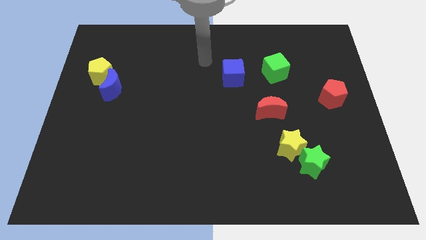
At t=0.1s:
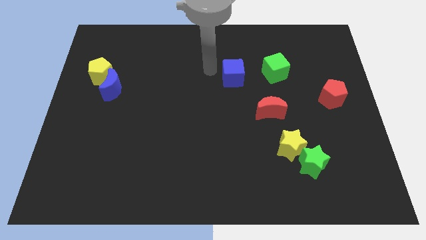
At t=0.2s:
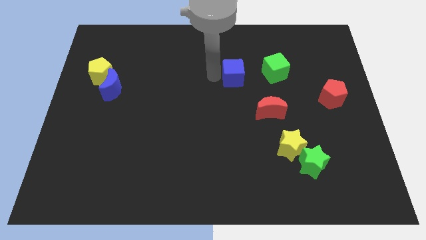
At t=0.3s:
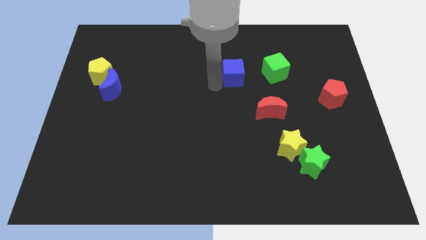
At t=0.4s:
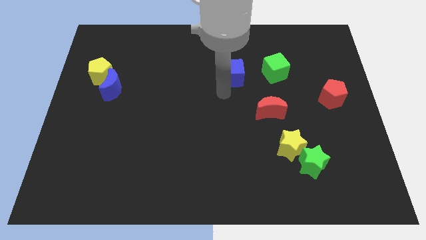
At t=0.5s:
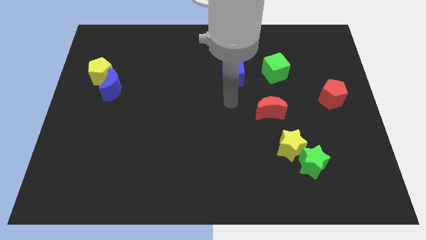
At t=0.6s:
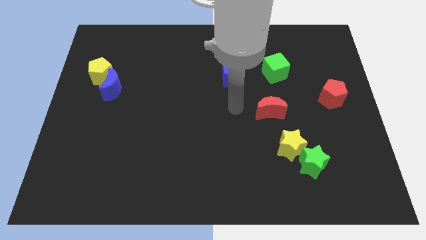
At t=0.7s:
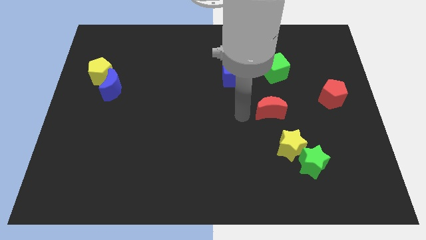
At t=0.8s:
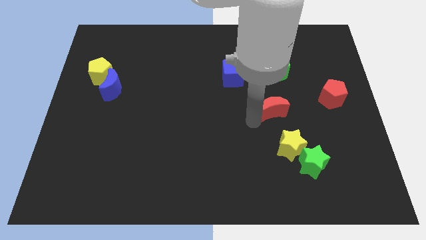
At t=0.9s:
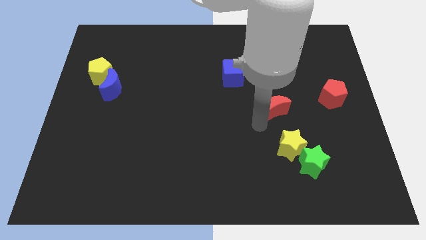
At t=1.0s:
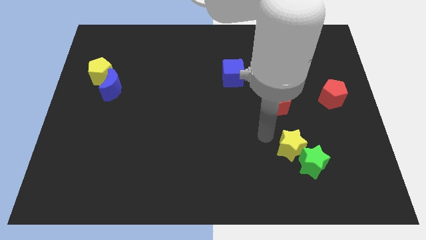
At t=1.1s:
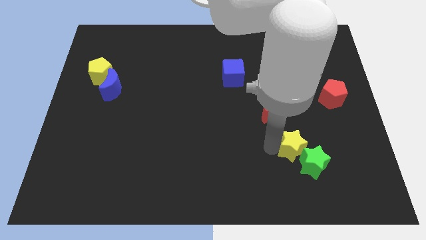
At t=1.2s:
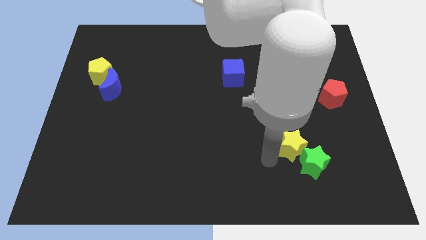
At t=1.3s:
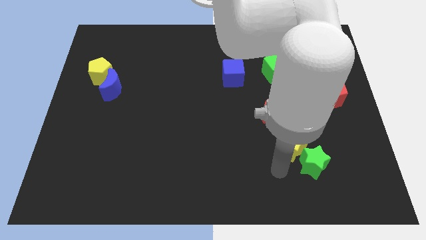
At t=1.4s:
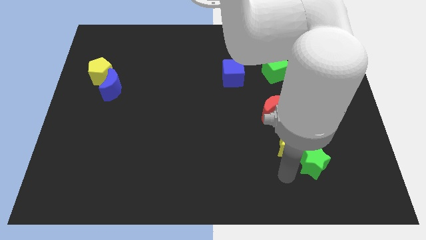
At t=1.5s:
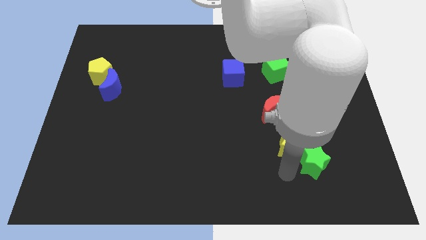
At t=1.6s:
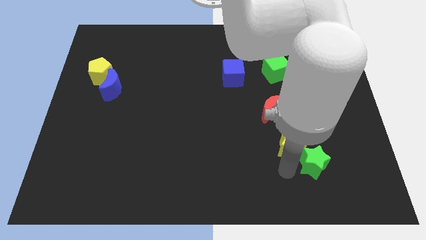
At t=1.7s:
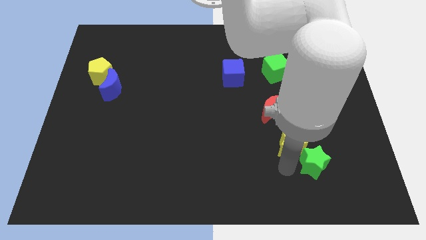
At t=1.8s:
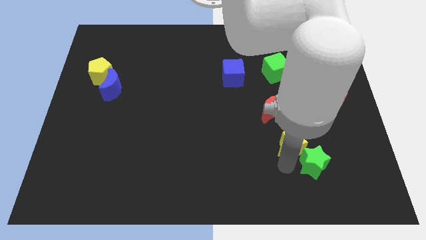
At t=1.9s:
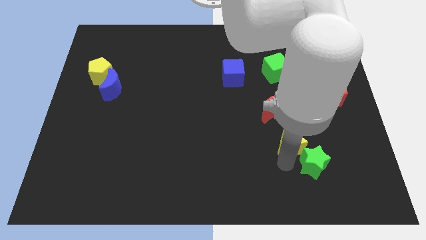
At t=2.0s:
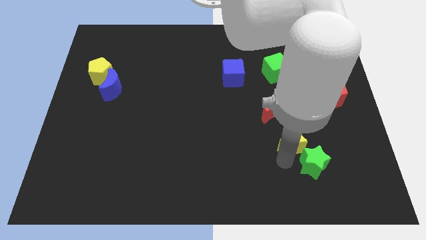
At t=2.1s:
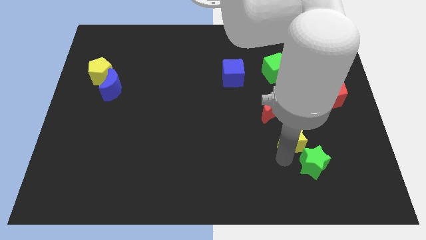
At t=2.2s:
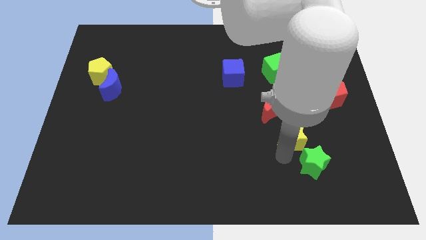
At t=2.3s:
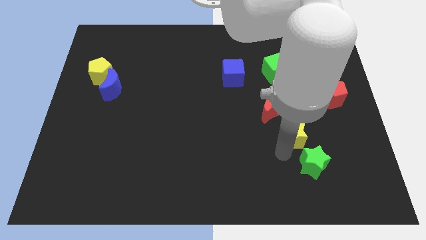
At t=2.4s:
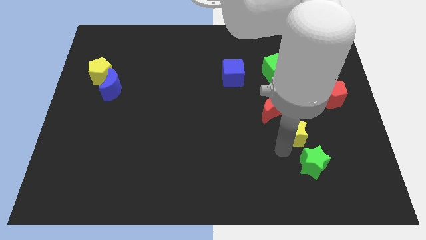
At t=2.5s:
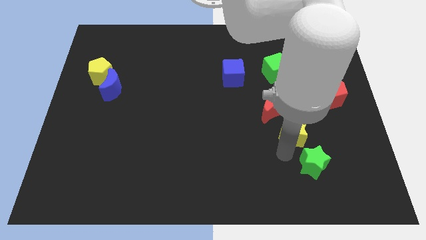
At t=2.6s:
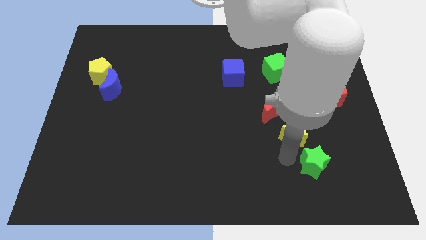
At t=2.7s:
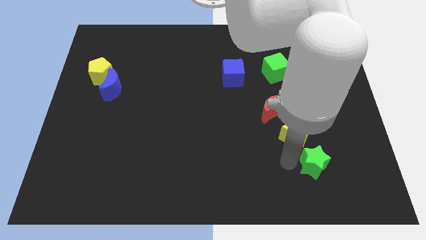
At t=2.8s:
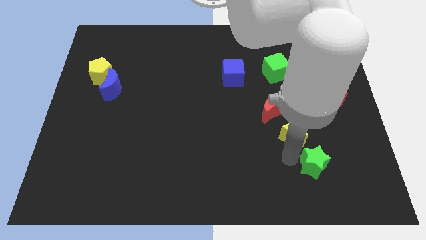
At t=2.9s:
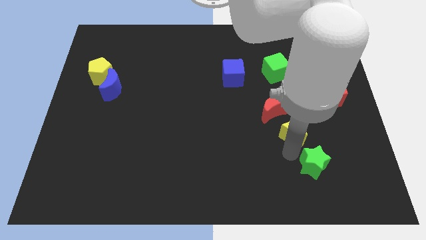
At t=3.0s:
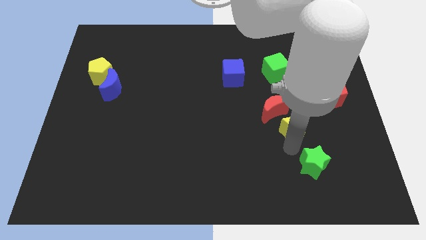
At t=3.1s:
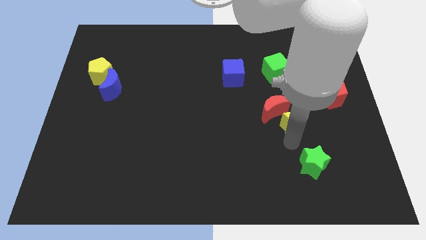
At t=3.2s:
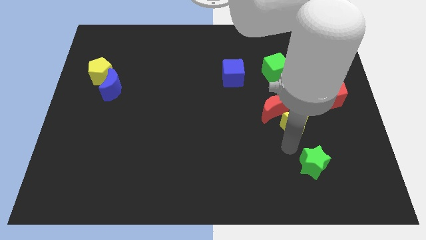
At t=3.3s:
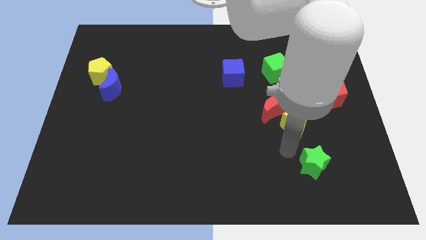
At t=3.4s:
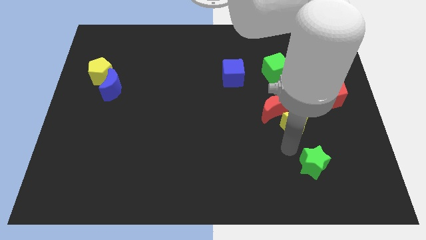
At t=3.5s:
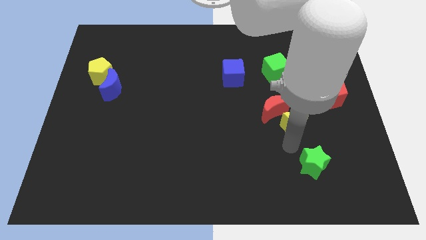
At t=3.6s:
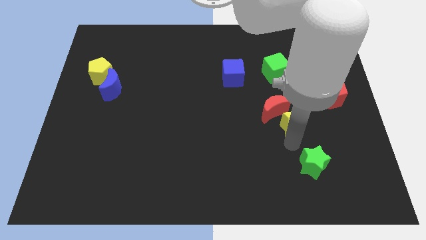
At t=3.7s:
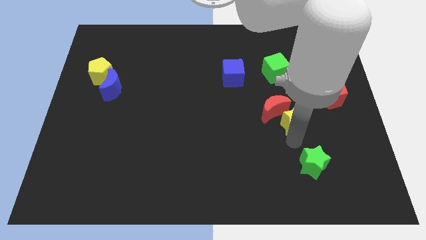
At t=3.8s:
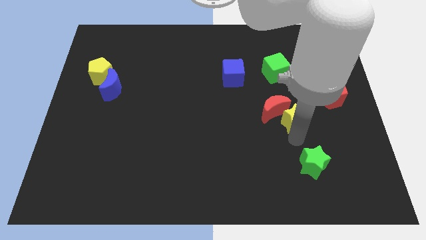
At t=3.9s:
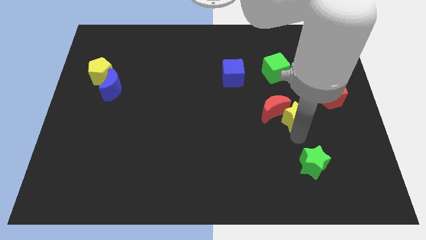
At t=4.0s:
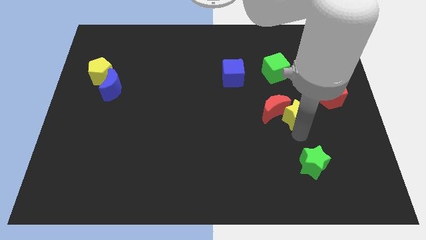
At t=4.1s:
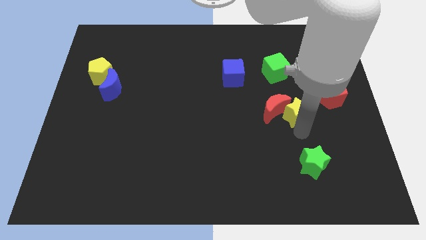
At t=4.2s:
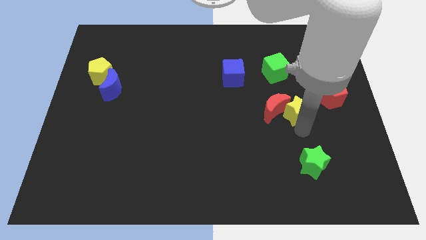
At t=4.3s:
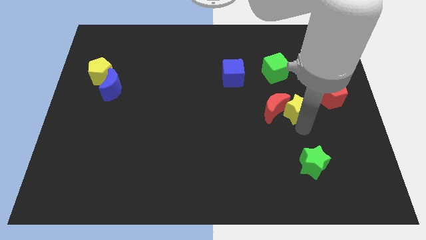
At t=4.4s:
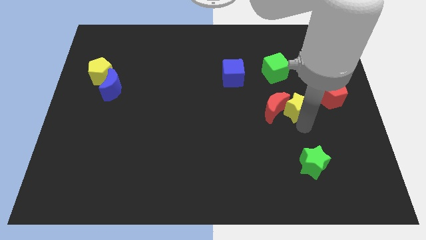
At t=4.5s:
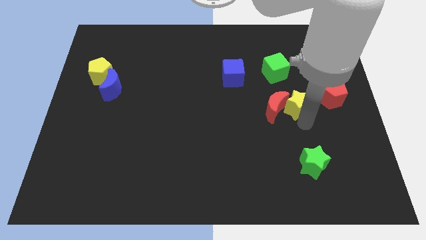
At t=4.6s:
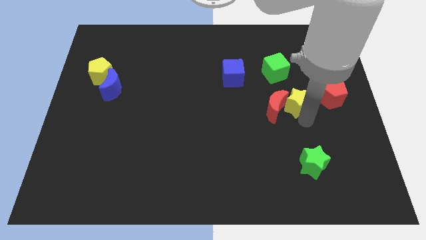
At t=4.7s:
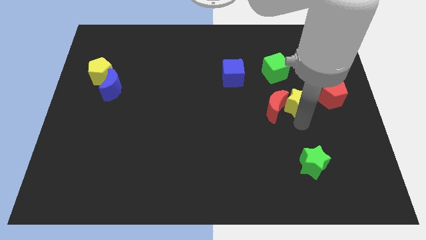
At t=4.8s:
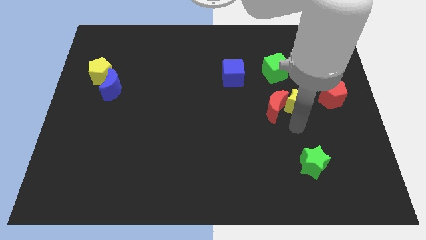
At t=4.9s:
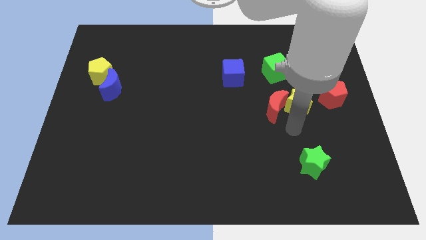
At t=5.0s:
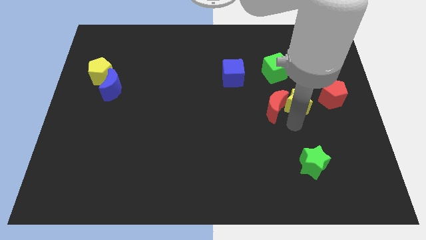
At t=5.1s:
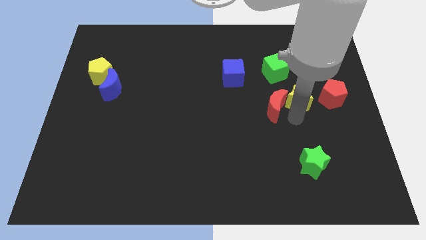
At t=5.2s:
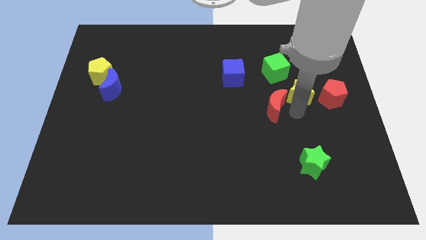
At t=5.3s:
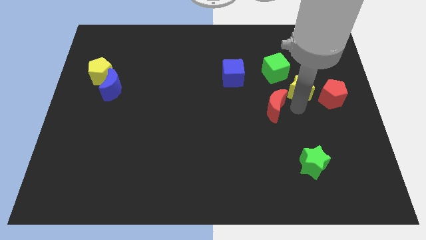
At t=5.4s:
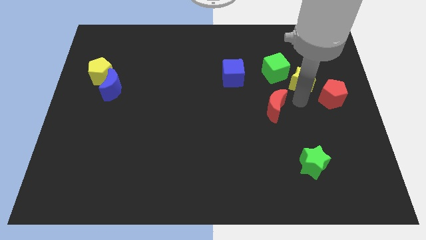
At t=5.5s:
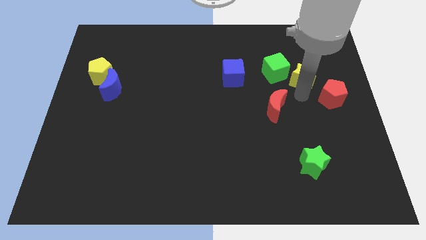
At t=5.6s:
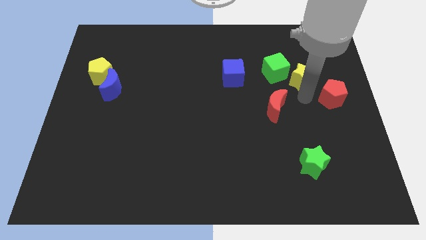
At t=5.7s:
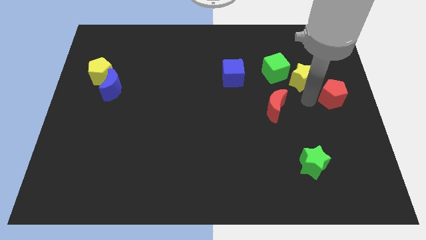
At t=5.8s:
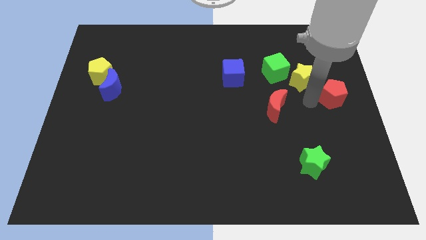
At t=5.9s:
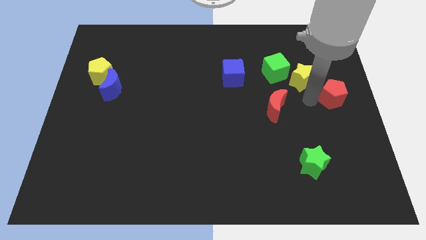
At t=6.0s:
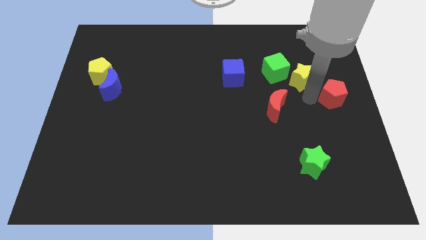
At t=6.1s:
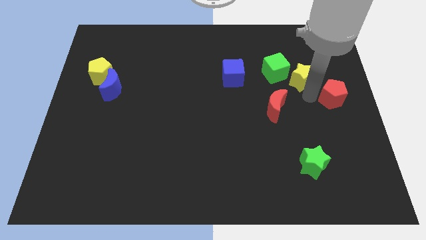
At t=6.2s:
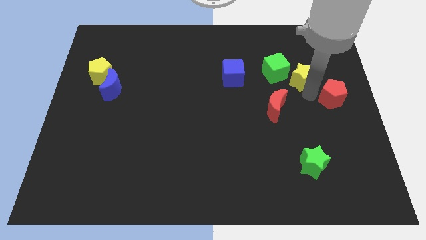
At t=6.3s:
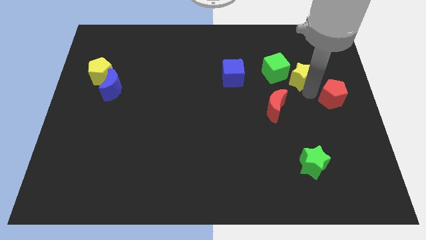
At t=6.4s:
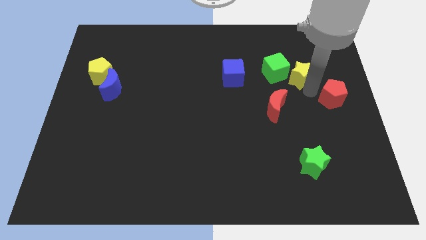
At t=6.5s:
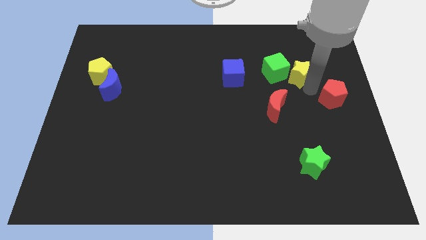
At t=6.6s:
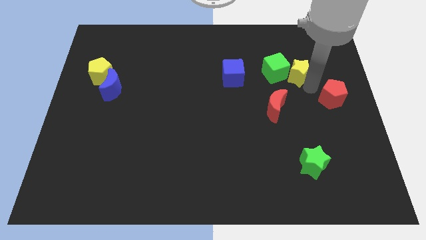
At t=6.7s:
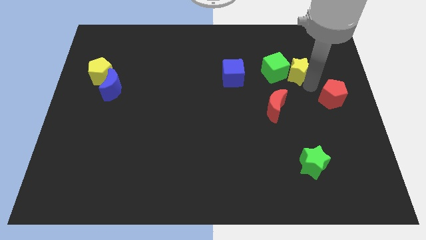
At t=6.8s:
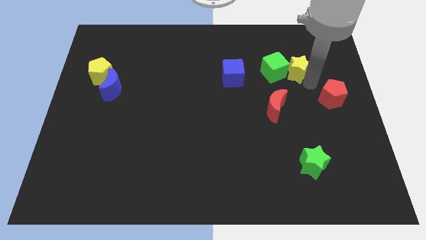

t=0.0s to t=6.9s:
push the yellow star diagonally up and to the right of the green cube
